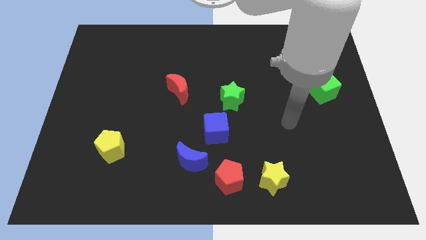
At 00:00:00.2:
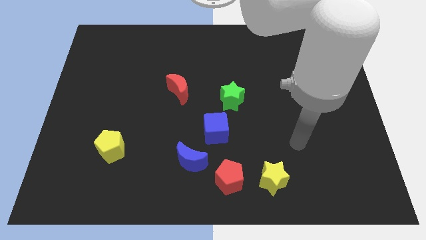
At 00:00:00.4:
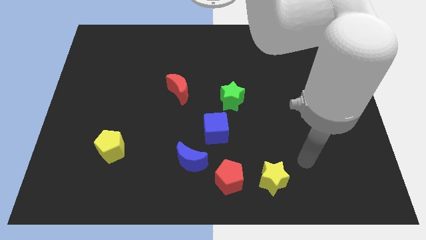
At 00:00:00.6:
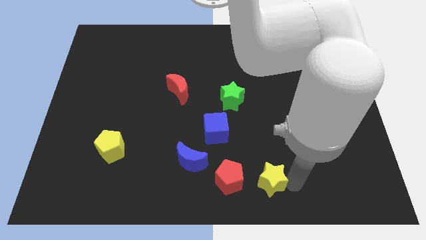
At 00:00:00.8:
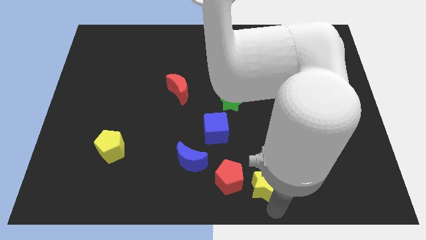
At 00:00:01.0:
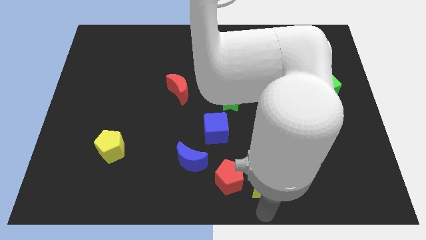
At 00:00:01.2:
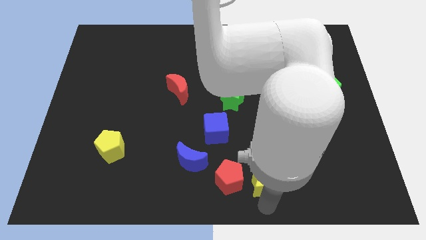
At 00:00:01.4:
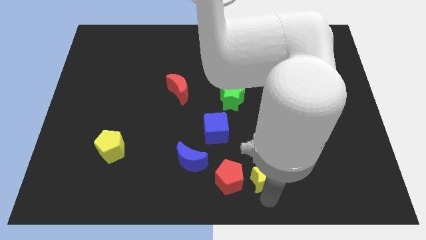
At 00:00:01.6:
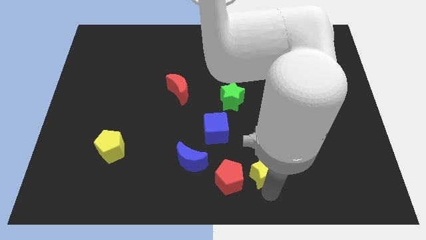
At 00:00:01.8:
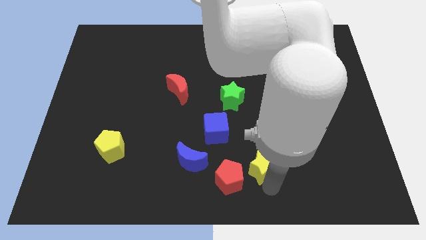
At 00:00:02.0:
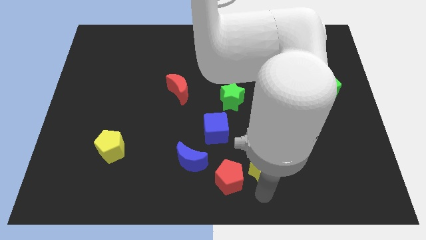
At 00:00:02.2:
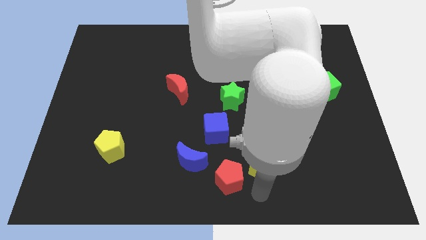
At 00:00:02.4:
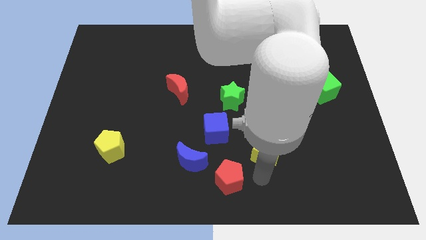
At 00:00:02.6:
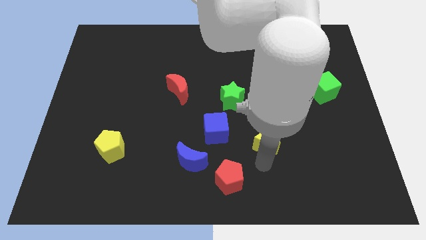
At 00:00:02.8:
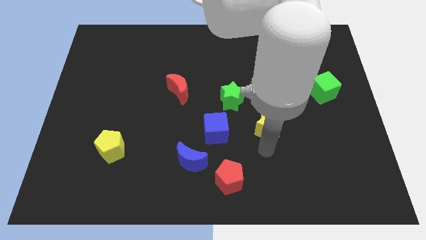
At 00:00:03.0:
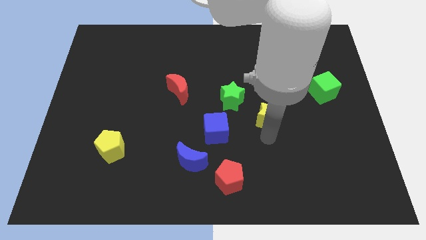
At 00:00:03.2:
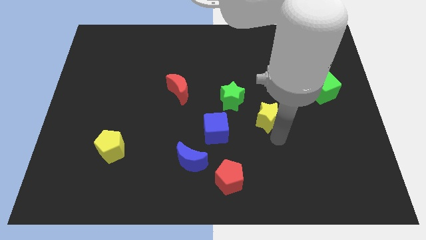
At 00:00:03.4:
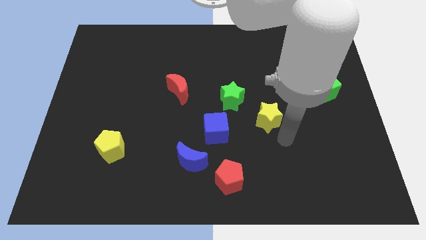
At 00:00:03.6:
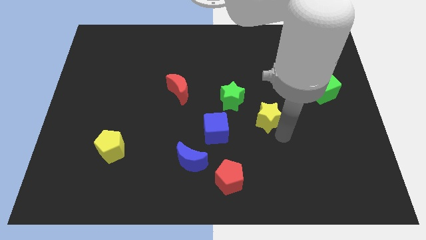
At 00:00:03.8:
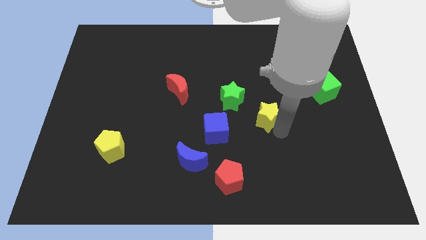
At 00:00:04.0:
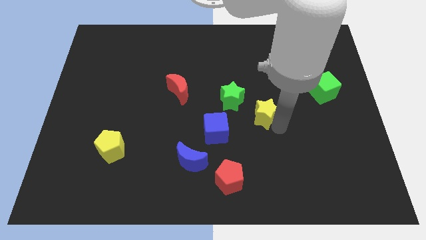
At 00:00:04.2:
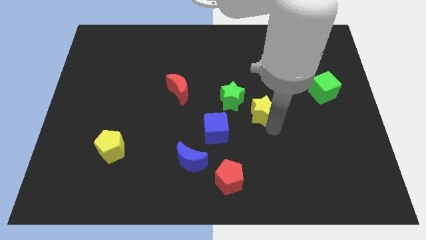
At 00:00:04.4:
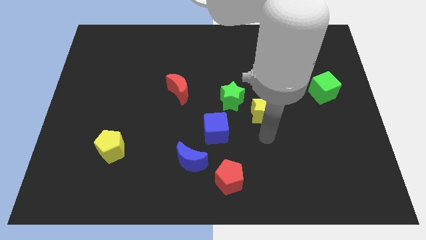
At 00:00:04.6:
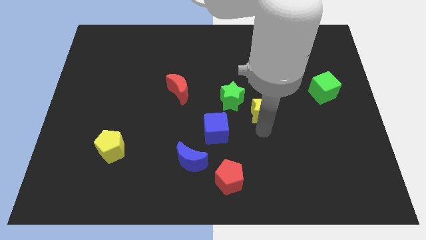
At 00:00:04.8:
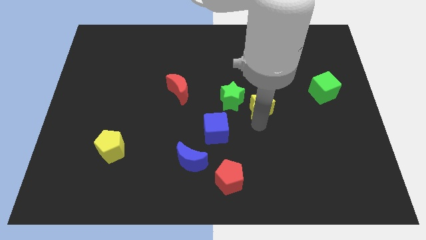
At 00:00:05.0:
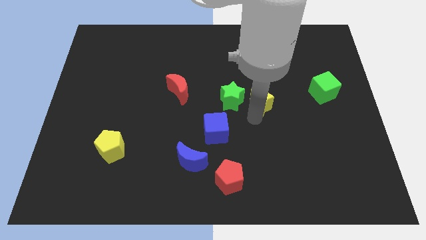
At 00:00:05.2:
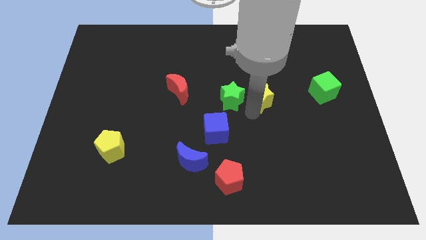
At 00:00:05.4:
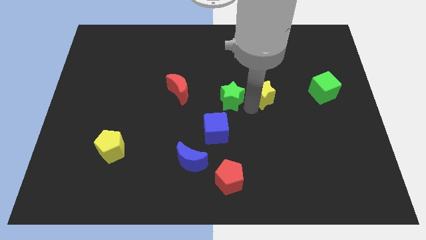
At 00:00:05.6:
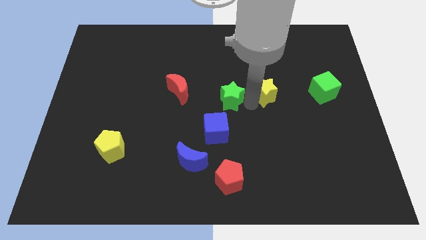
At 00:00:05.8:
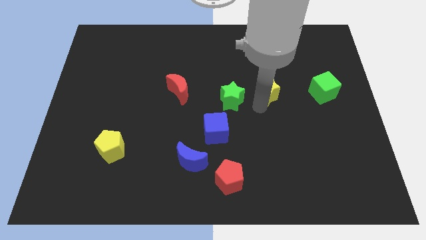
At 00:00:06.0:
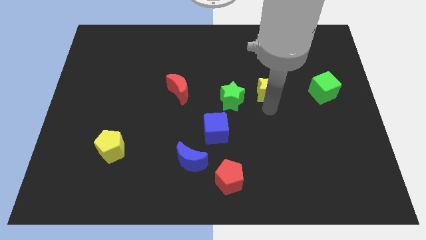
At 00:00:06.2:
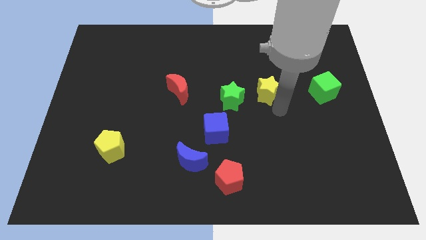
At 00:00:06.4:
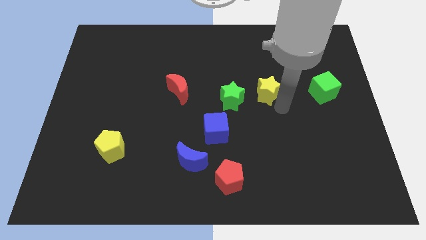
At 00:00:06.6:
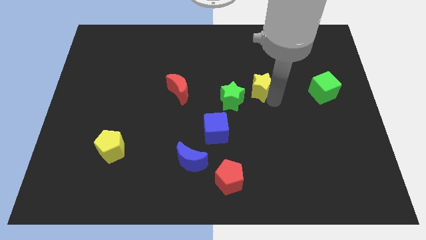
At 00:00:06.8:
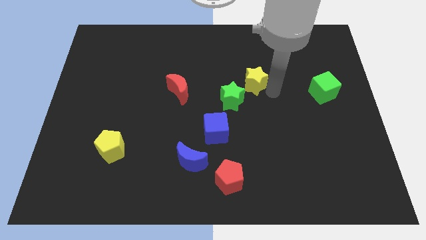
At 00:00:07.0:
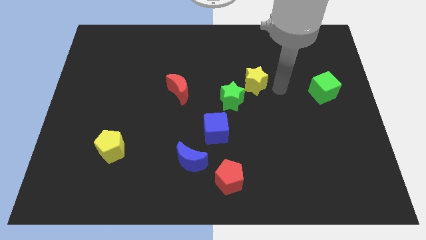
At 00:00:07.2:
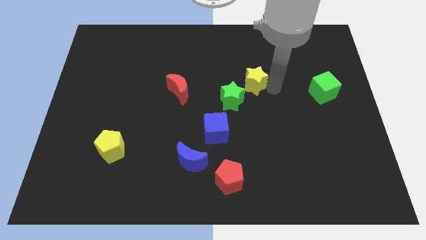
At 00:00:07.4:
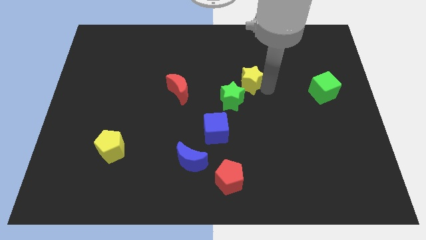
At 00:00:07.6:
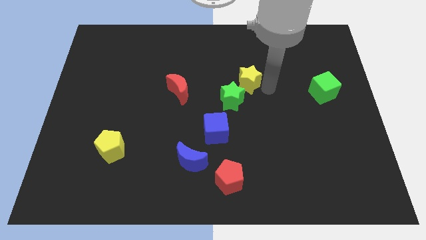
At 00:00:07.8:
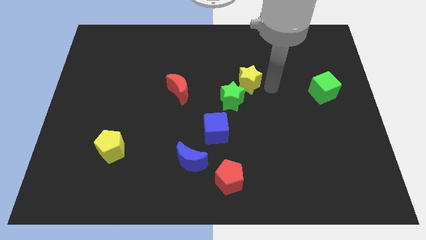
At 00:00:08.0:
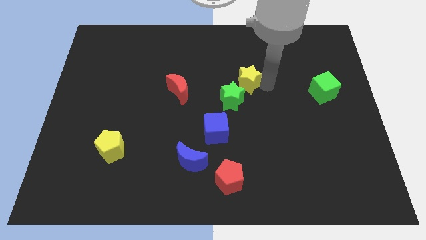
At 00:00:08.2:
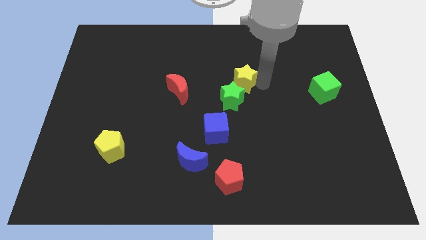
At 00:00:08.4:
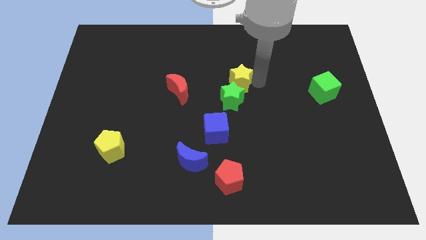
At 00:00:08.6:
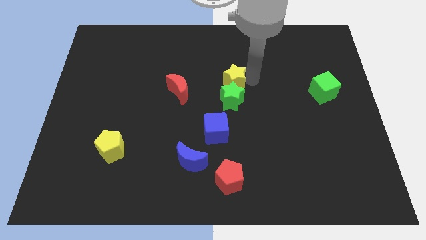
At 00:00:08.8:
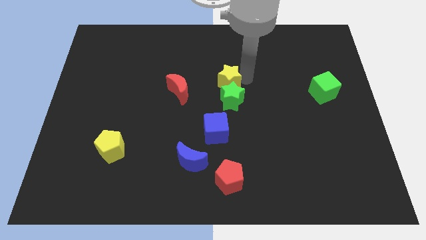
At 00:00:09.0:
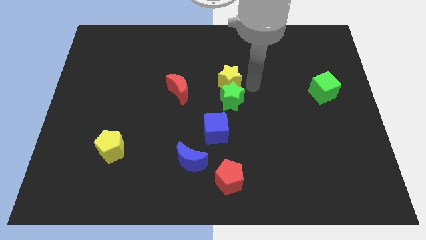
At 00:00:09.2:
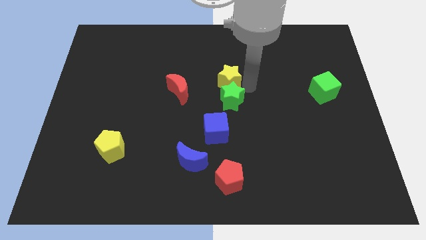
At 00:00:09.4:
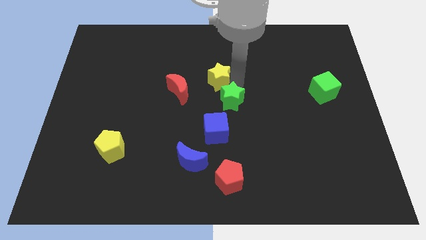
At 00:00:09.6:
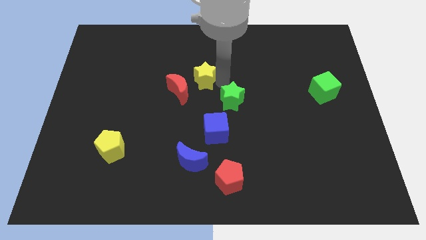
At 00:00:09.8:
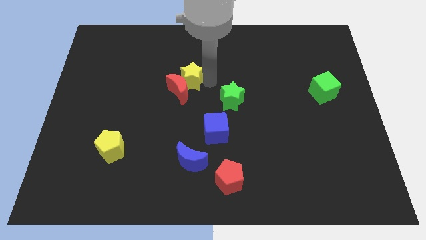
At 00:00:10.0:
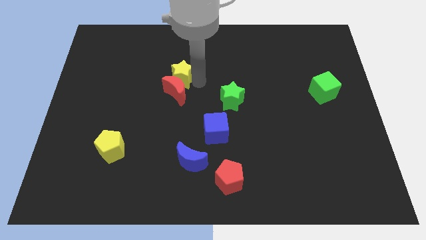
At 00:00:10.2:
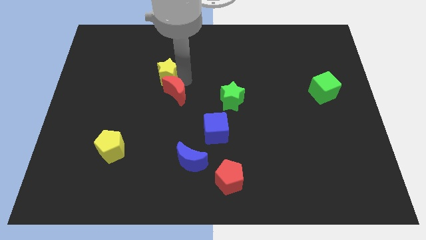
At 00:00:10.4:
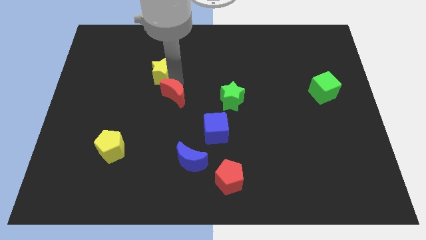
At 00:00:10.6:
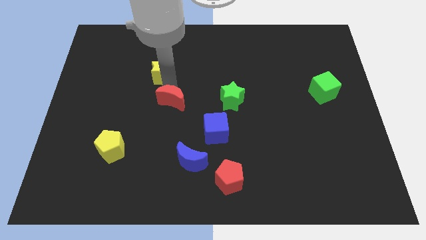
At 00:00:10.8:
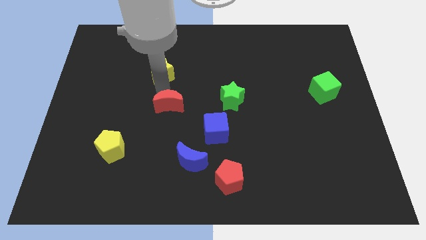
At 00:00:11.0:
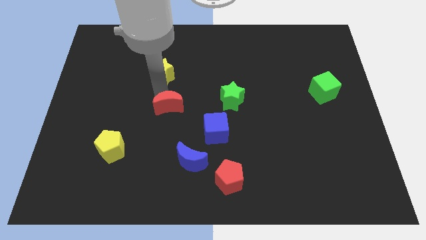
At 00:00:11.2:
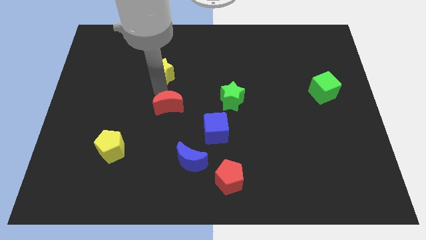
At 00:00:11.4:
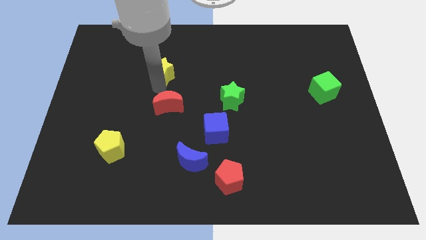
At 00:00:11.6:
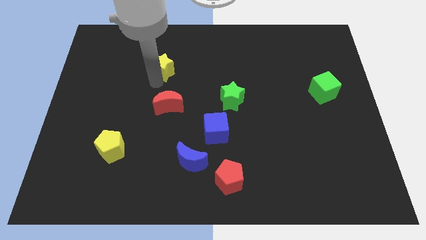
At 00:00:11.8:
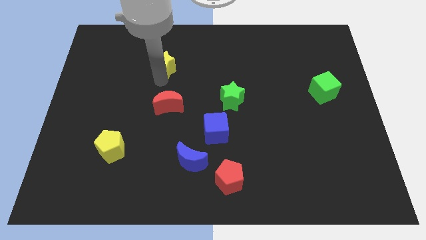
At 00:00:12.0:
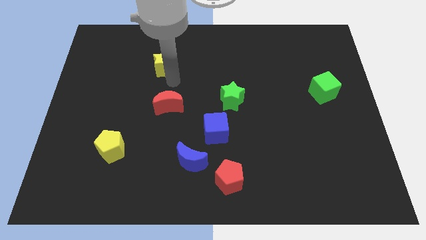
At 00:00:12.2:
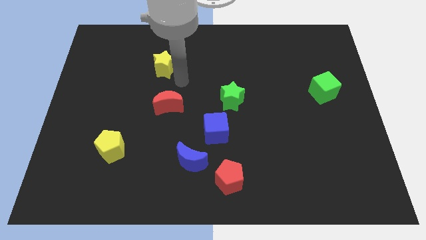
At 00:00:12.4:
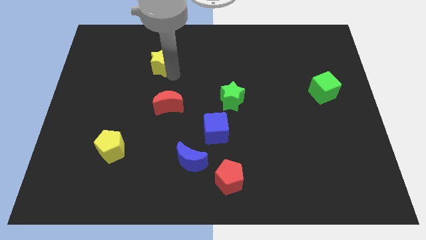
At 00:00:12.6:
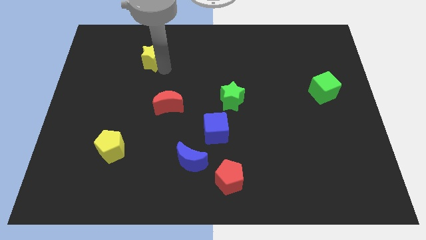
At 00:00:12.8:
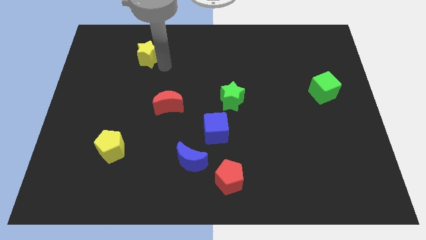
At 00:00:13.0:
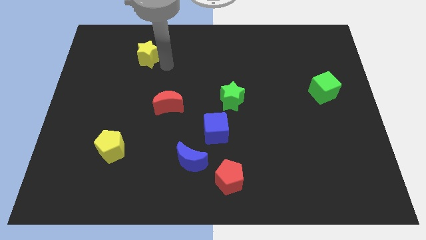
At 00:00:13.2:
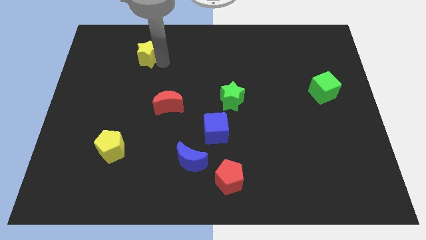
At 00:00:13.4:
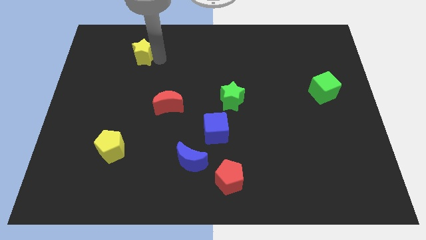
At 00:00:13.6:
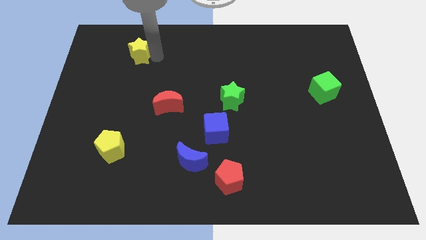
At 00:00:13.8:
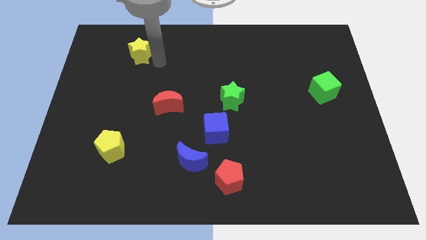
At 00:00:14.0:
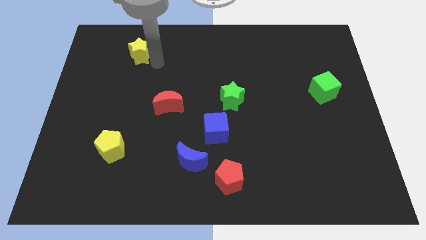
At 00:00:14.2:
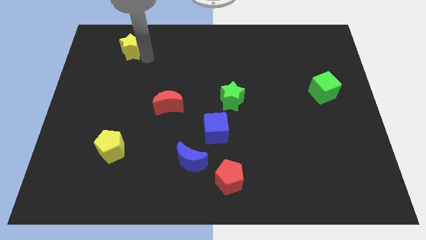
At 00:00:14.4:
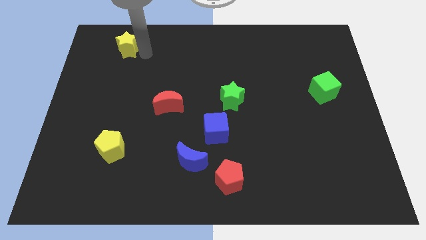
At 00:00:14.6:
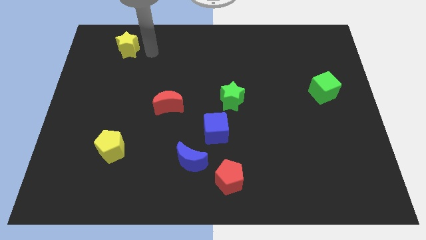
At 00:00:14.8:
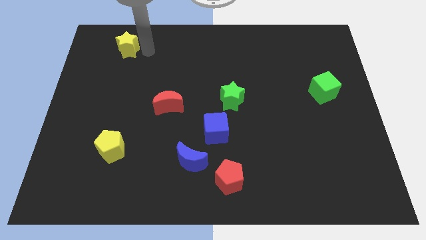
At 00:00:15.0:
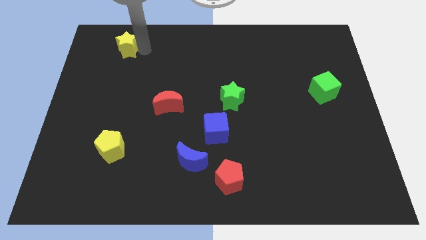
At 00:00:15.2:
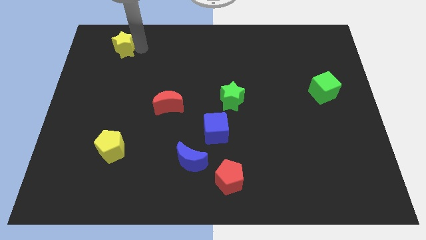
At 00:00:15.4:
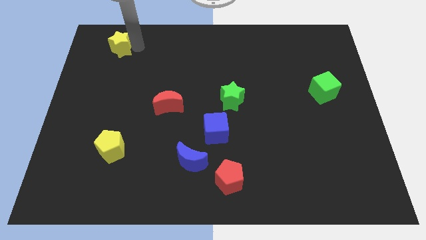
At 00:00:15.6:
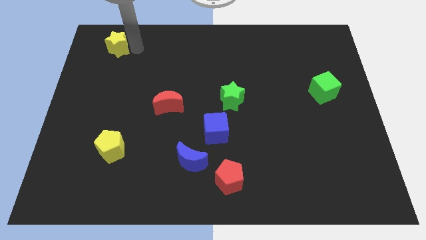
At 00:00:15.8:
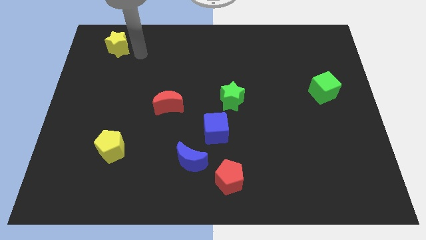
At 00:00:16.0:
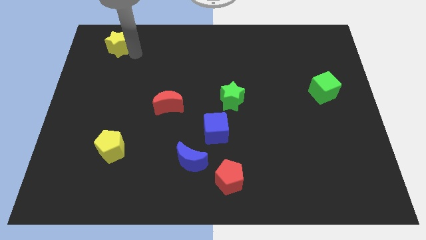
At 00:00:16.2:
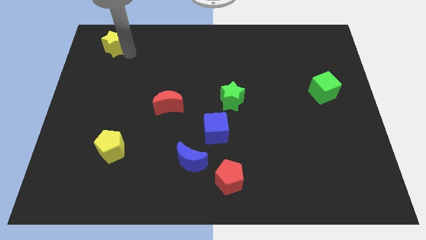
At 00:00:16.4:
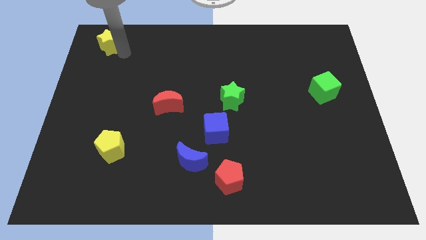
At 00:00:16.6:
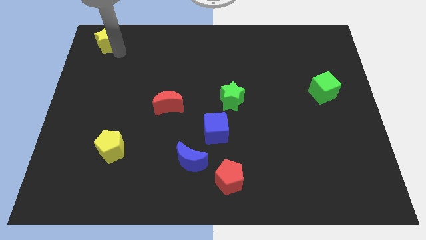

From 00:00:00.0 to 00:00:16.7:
move the yellow star to the top left corner
